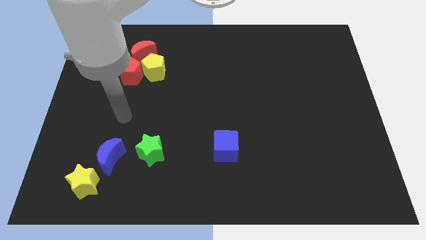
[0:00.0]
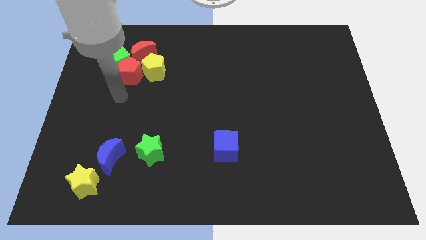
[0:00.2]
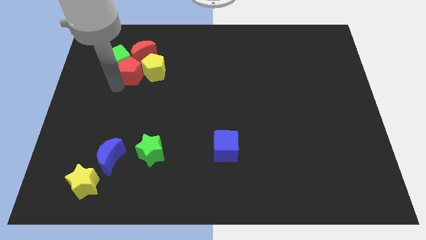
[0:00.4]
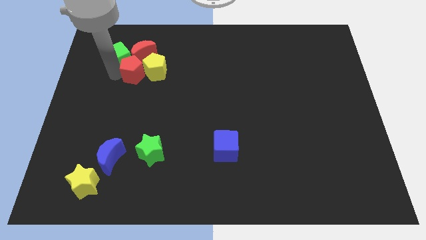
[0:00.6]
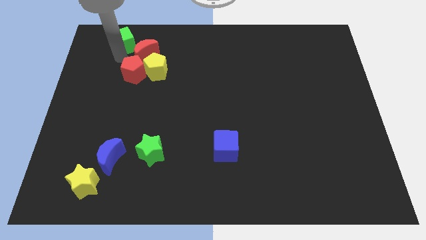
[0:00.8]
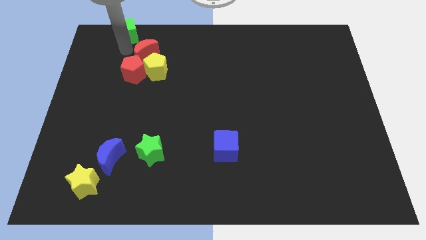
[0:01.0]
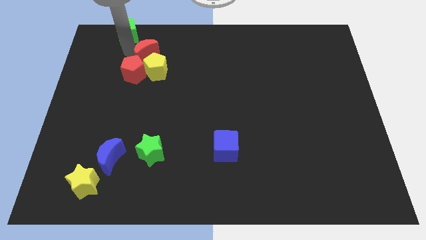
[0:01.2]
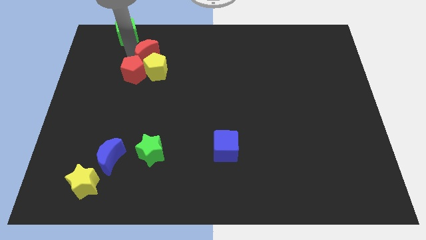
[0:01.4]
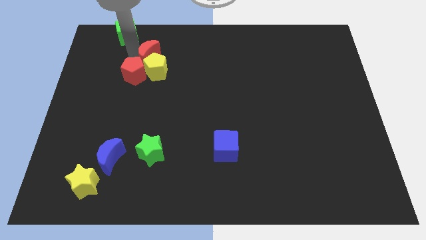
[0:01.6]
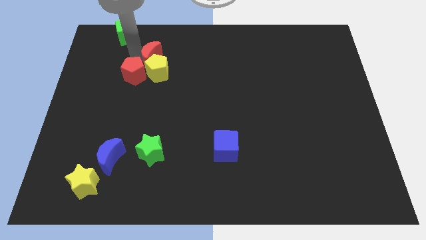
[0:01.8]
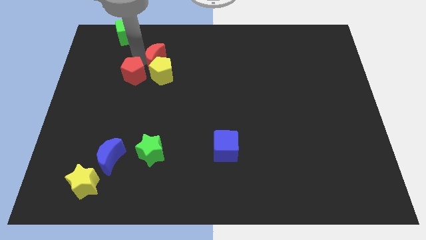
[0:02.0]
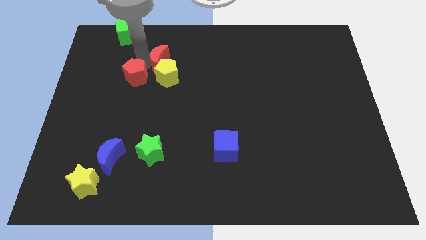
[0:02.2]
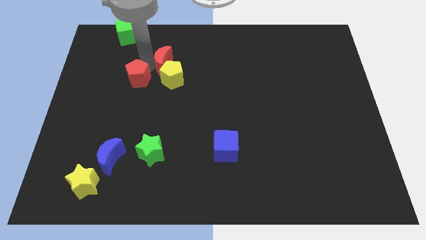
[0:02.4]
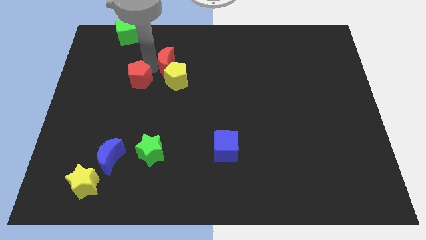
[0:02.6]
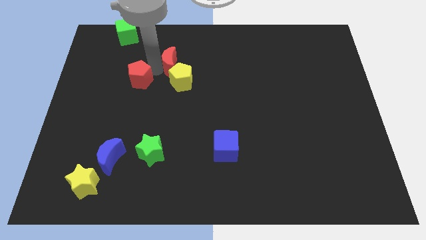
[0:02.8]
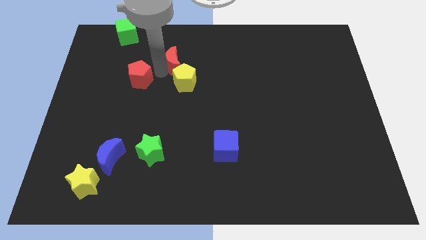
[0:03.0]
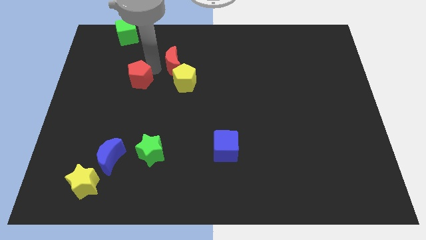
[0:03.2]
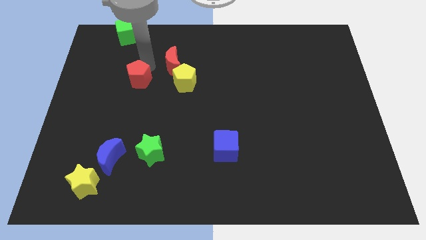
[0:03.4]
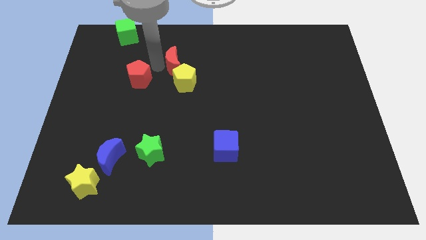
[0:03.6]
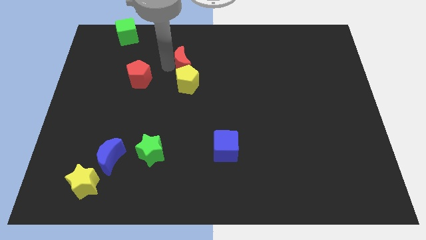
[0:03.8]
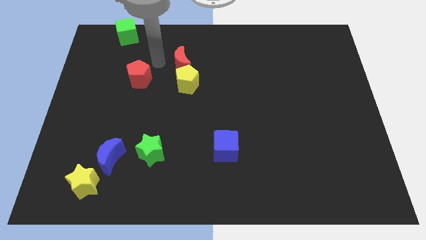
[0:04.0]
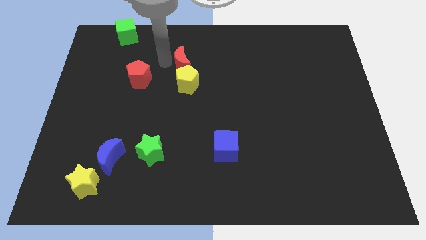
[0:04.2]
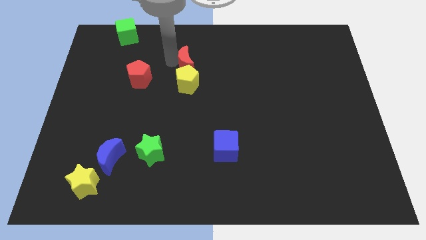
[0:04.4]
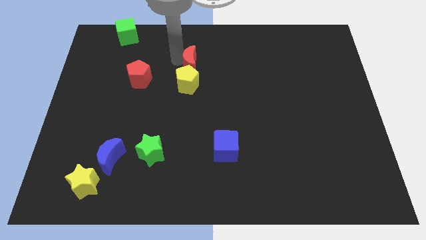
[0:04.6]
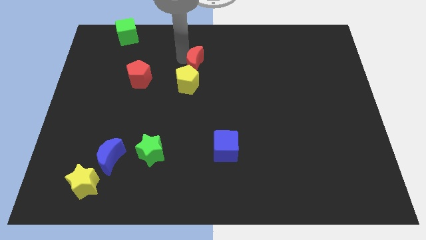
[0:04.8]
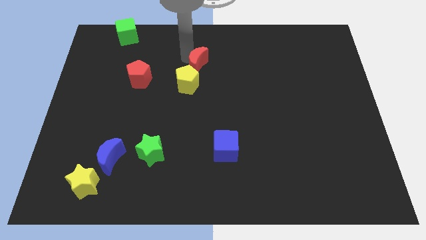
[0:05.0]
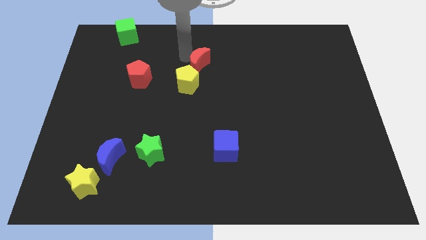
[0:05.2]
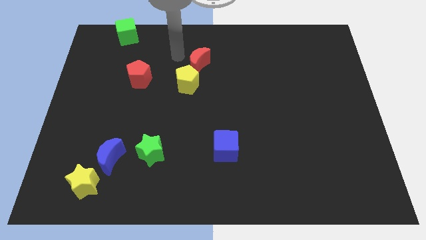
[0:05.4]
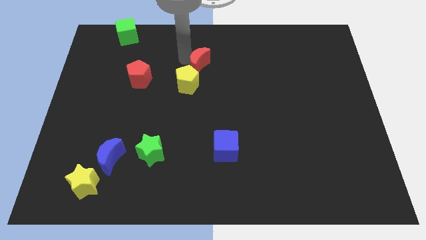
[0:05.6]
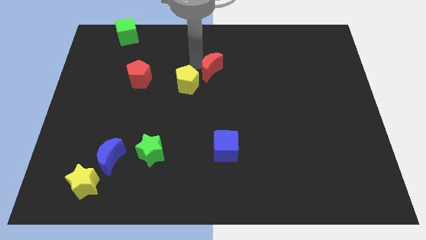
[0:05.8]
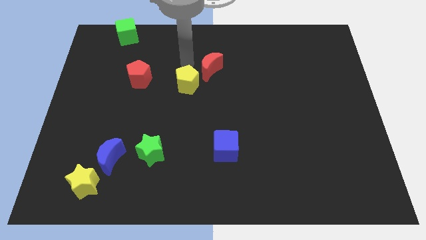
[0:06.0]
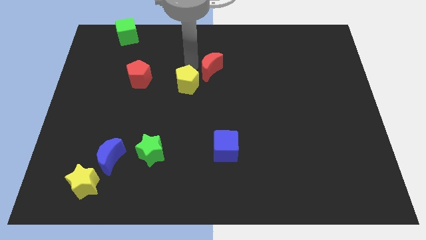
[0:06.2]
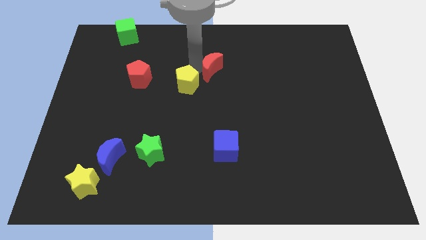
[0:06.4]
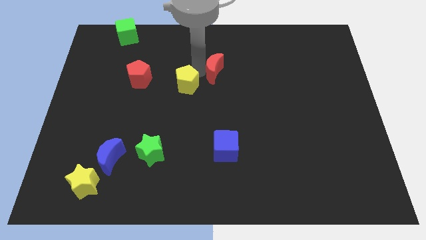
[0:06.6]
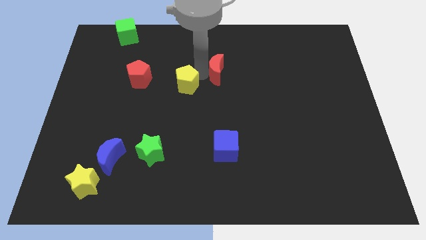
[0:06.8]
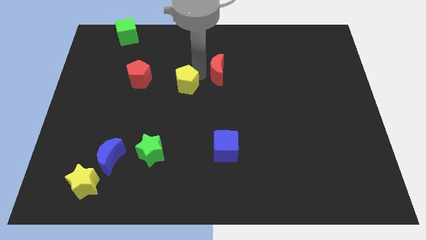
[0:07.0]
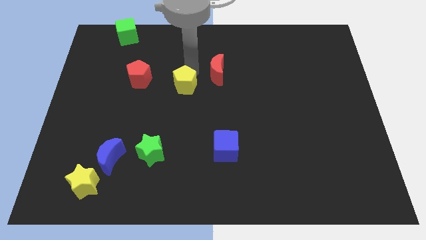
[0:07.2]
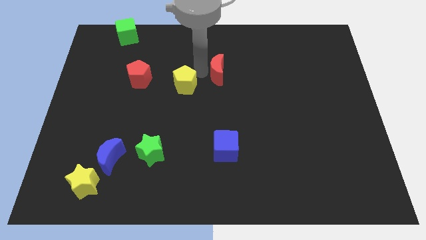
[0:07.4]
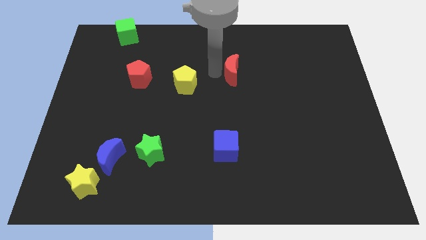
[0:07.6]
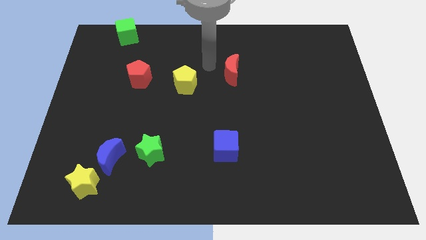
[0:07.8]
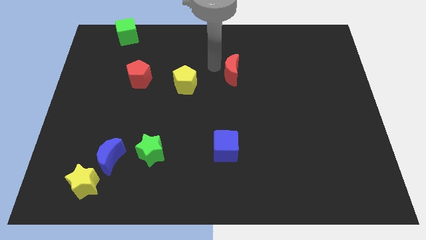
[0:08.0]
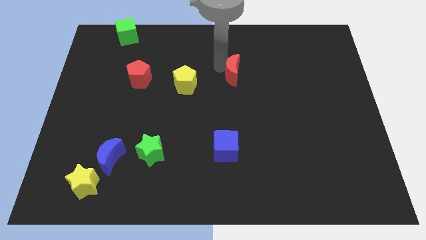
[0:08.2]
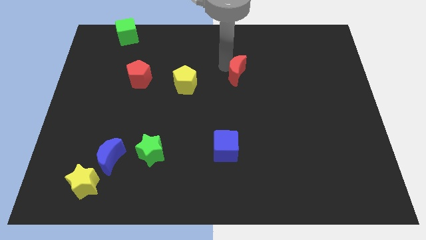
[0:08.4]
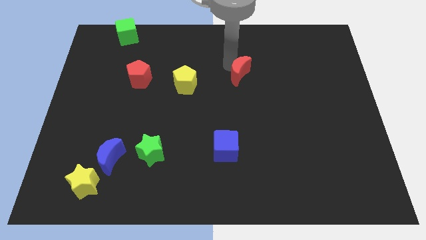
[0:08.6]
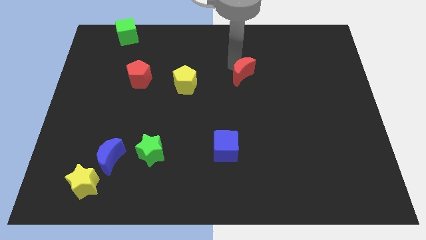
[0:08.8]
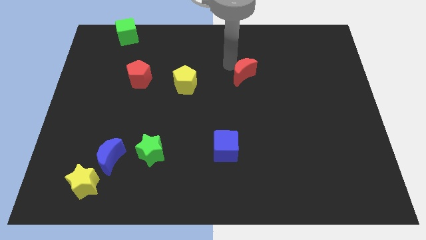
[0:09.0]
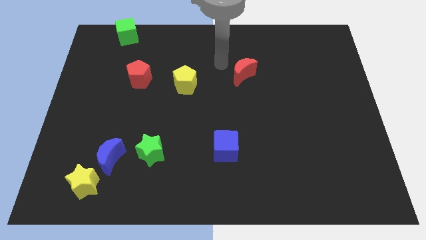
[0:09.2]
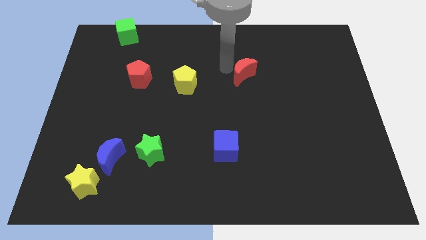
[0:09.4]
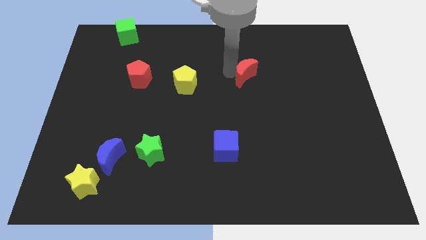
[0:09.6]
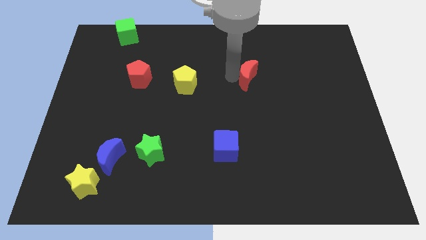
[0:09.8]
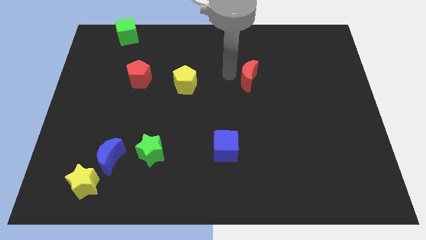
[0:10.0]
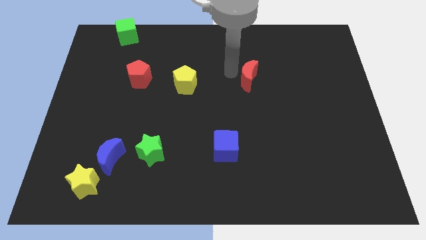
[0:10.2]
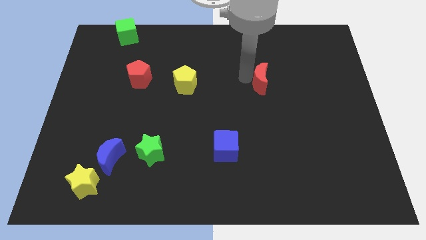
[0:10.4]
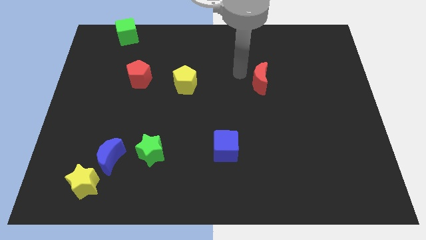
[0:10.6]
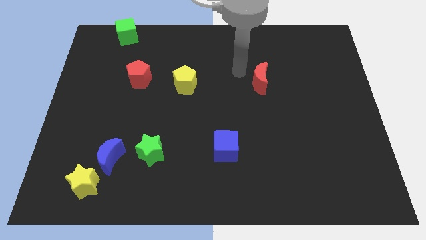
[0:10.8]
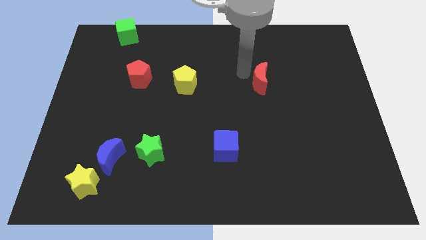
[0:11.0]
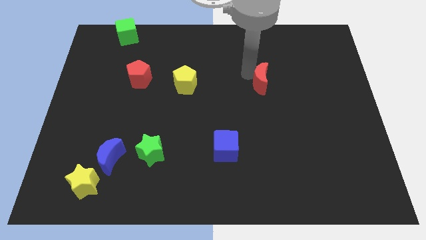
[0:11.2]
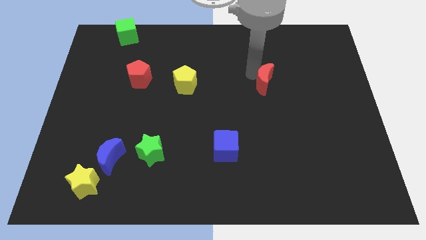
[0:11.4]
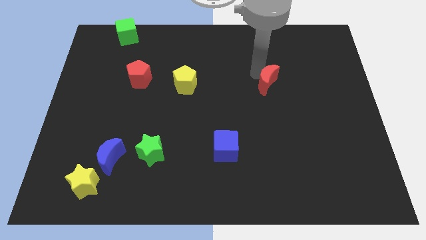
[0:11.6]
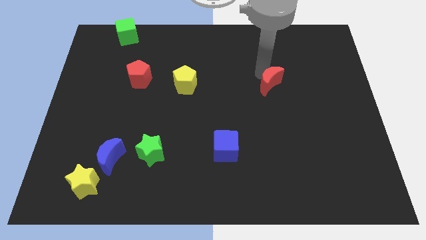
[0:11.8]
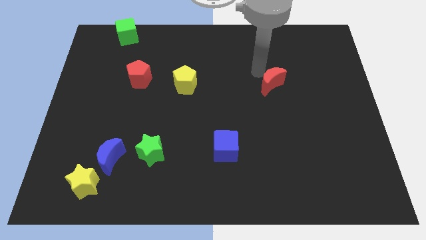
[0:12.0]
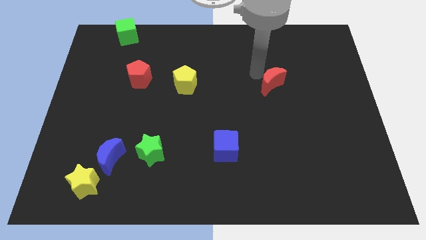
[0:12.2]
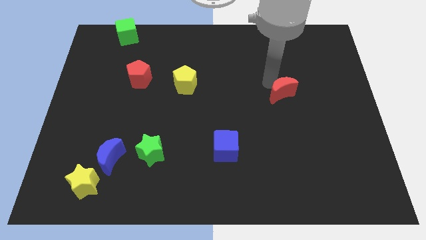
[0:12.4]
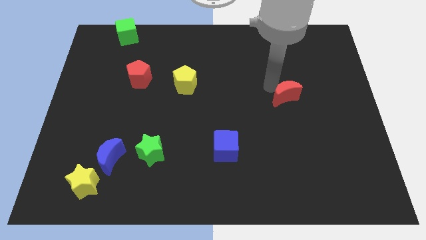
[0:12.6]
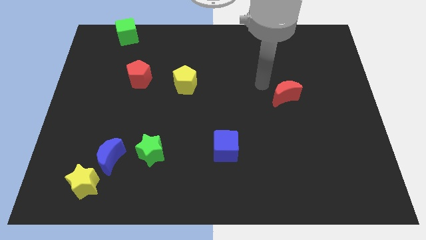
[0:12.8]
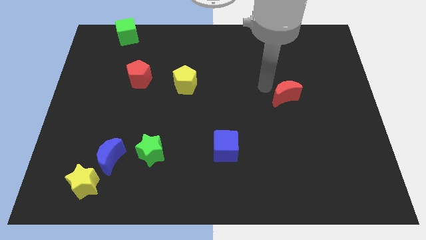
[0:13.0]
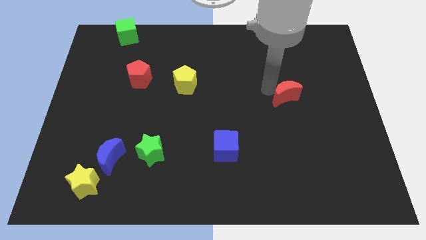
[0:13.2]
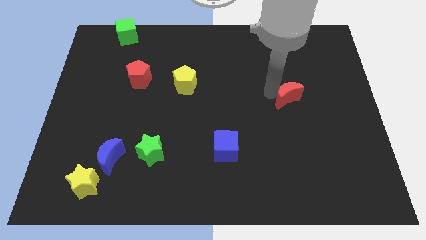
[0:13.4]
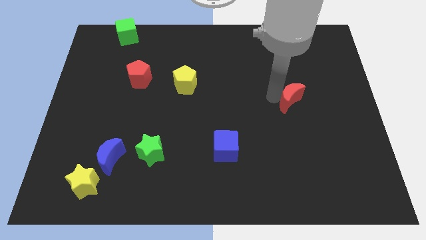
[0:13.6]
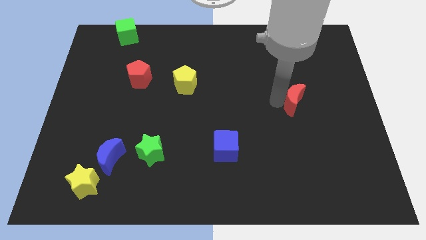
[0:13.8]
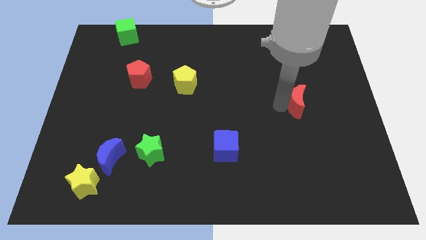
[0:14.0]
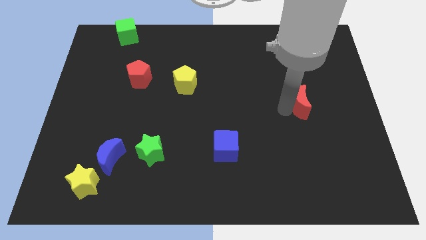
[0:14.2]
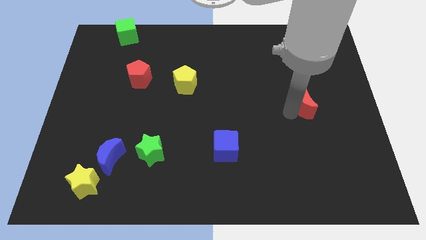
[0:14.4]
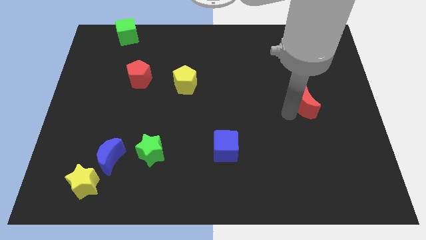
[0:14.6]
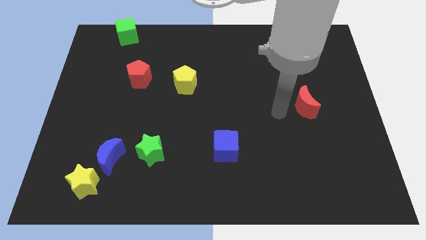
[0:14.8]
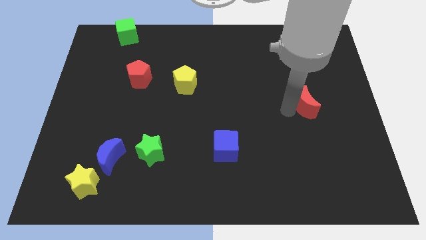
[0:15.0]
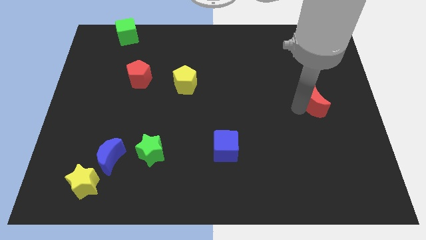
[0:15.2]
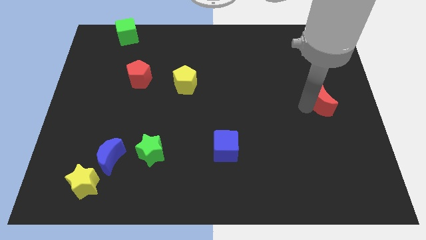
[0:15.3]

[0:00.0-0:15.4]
slide the red moon to the right side
